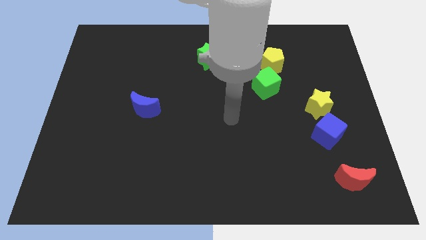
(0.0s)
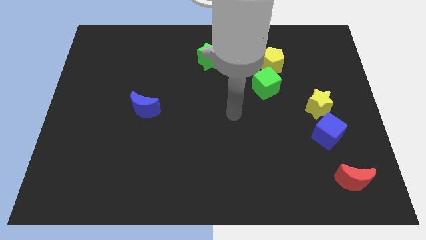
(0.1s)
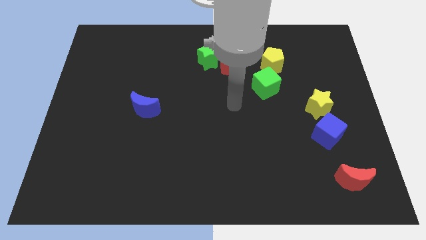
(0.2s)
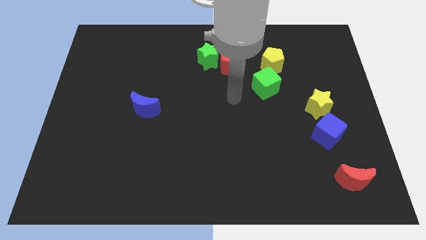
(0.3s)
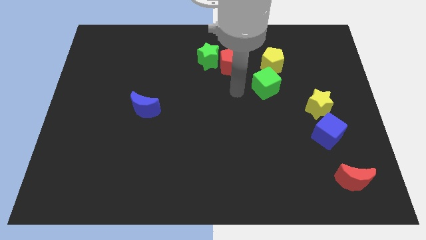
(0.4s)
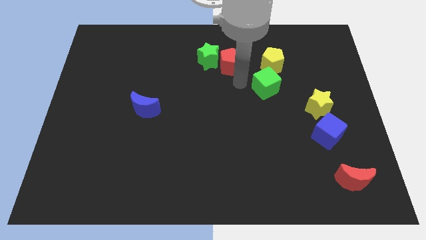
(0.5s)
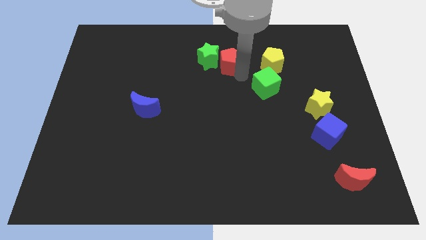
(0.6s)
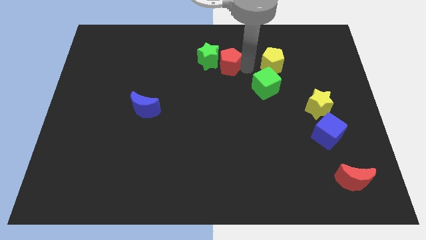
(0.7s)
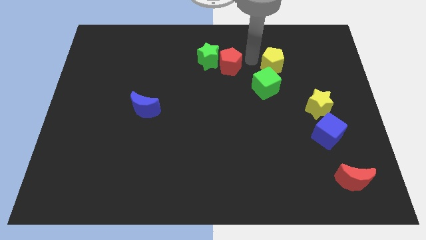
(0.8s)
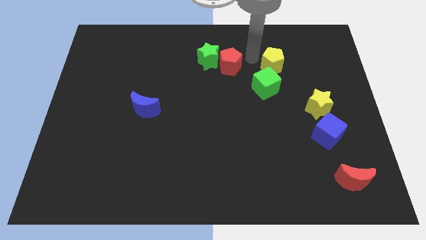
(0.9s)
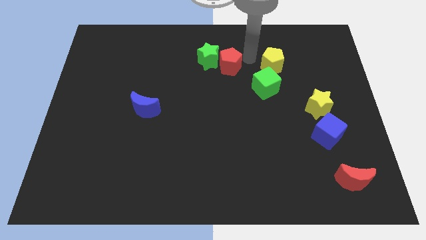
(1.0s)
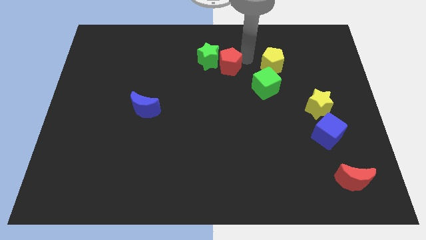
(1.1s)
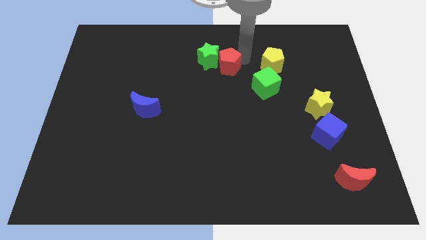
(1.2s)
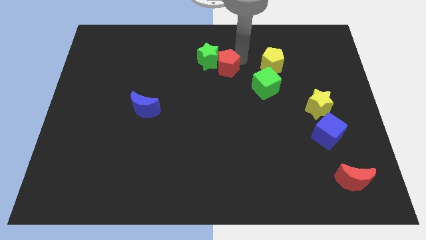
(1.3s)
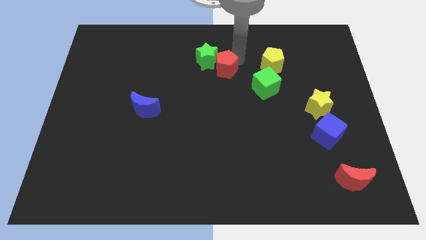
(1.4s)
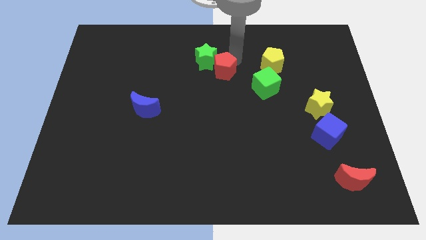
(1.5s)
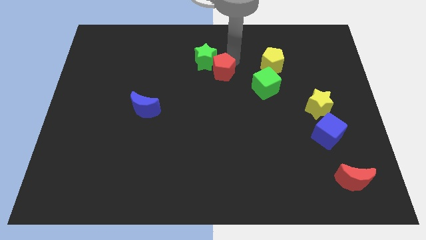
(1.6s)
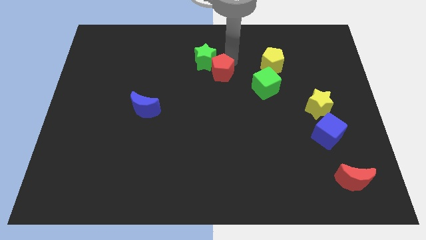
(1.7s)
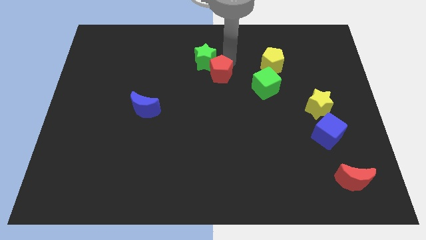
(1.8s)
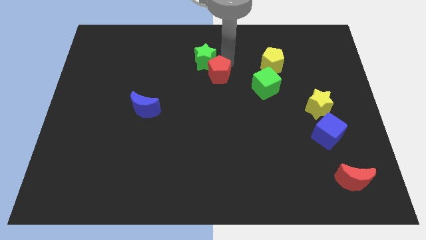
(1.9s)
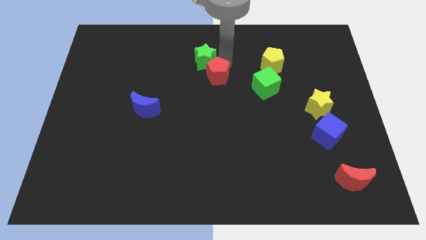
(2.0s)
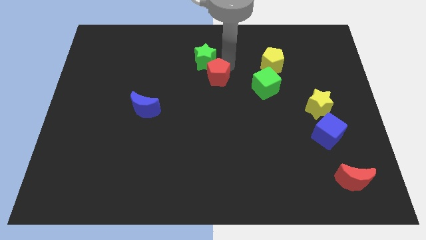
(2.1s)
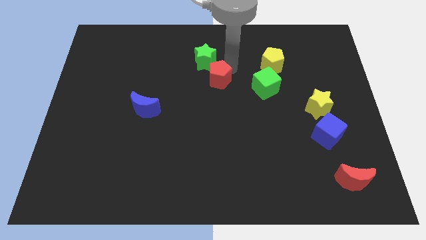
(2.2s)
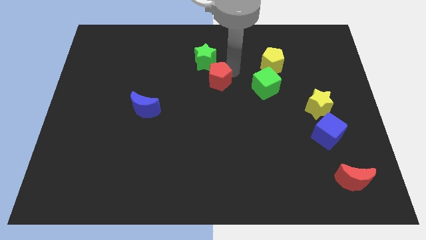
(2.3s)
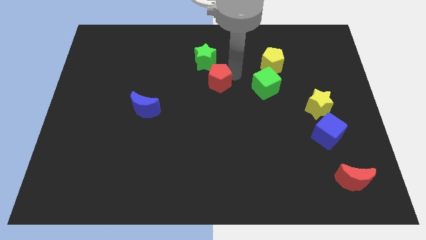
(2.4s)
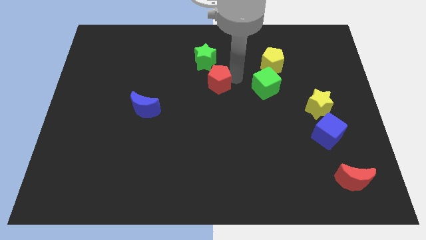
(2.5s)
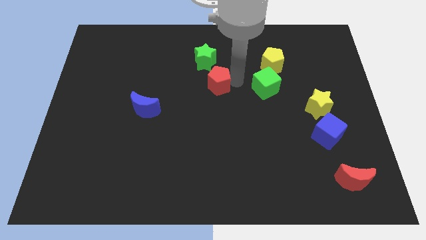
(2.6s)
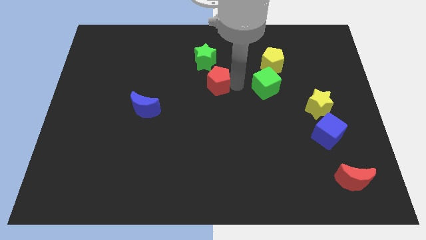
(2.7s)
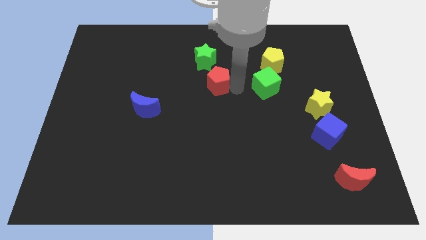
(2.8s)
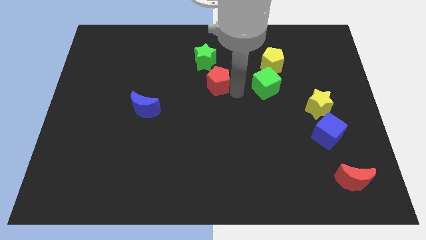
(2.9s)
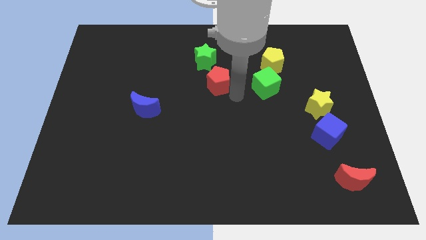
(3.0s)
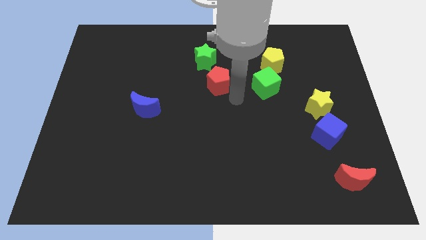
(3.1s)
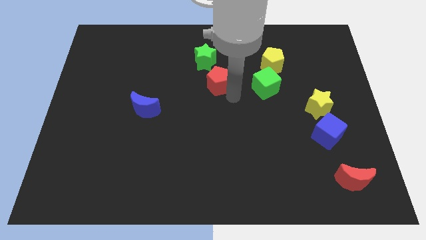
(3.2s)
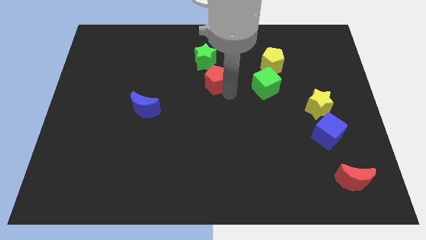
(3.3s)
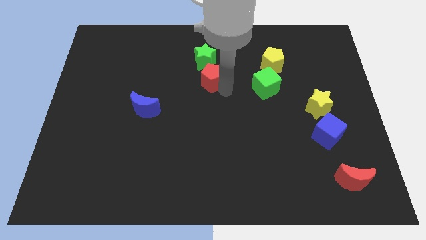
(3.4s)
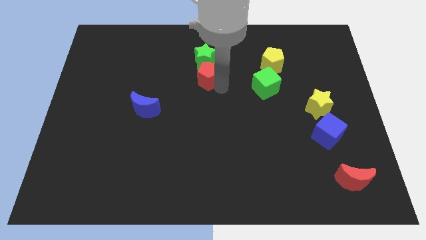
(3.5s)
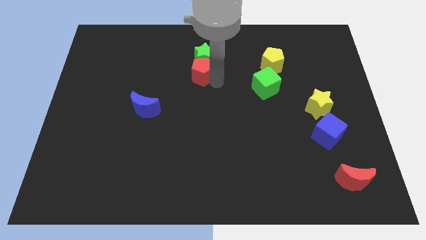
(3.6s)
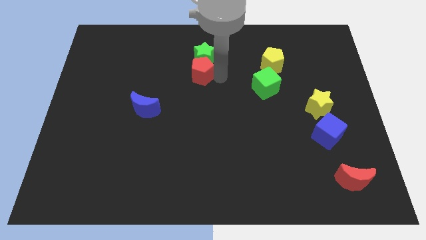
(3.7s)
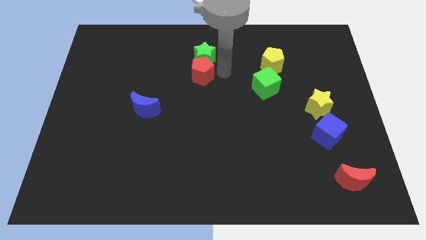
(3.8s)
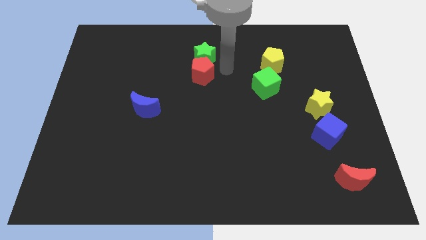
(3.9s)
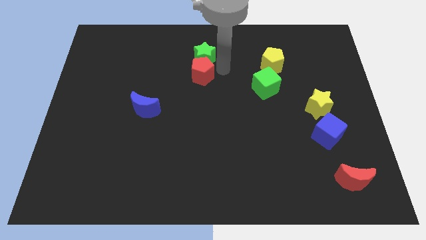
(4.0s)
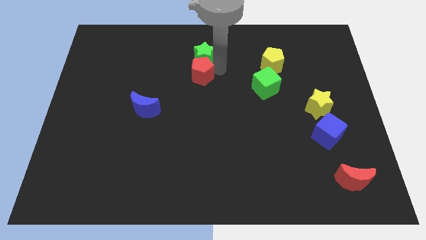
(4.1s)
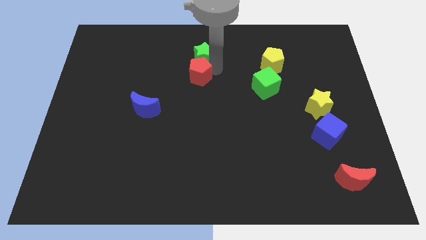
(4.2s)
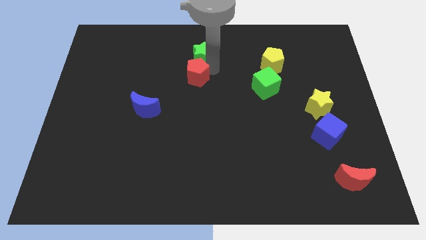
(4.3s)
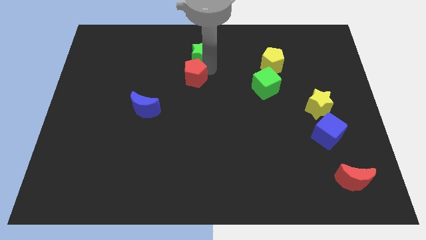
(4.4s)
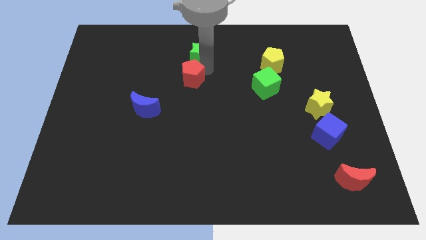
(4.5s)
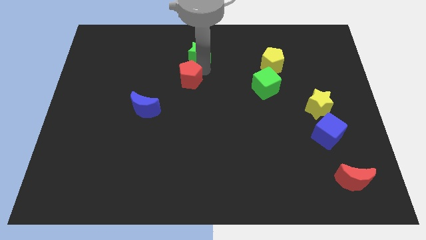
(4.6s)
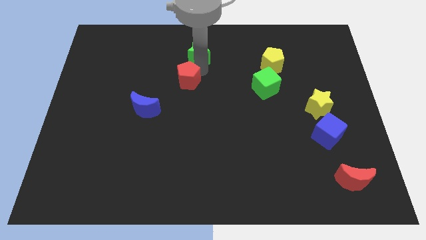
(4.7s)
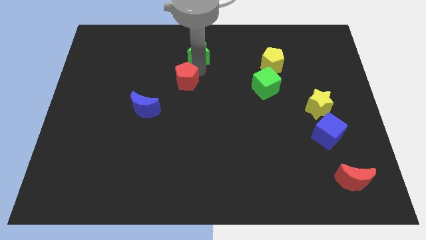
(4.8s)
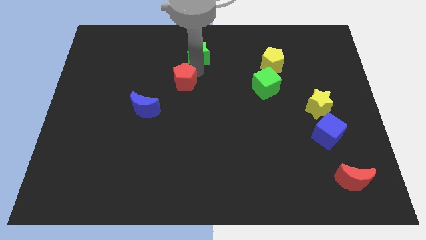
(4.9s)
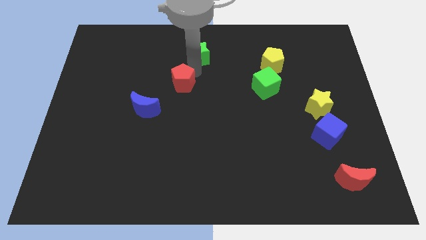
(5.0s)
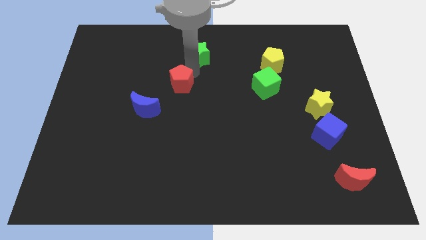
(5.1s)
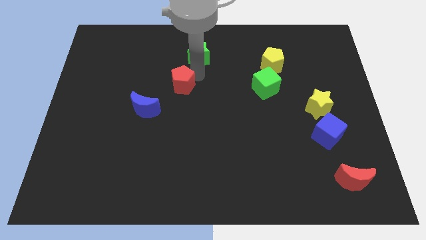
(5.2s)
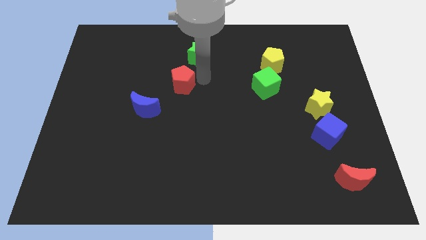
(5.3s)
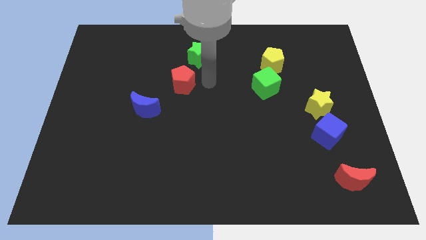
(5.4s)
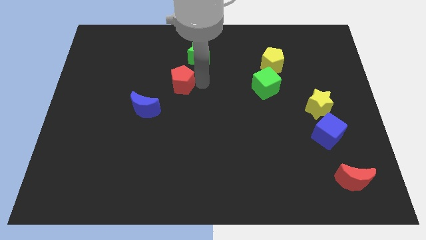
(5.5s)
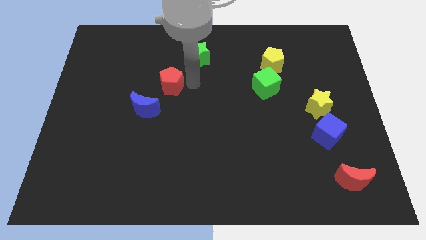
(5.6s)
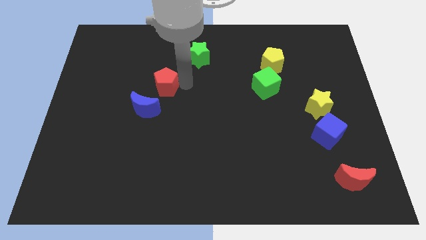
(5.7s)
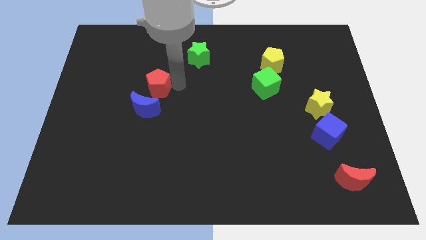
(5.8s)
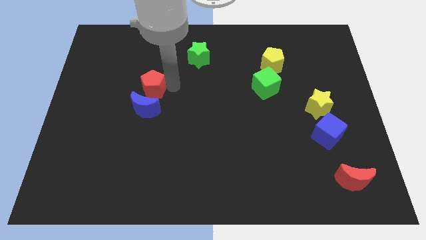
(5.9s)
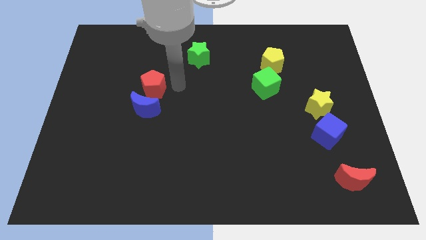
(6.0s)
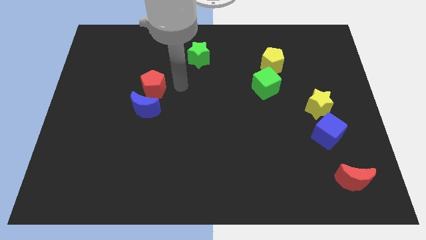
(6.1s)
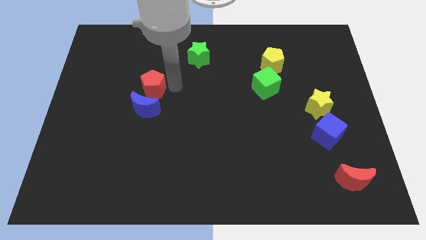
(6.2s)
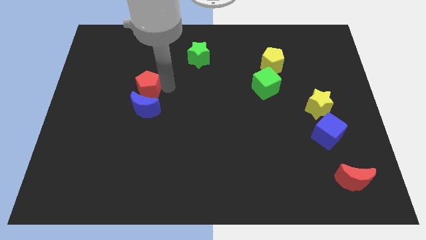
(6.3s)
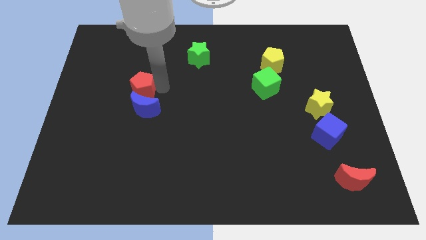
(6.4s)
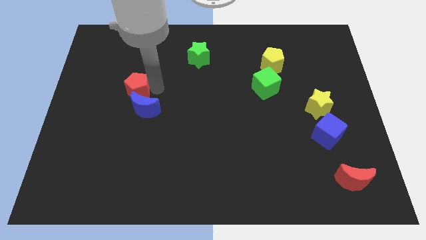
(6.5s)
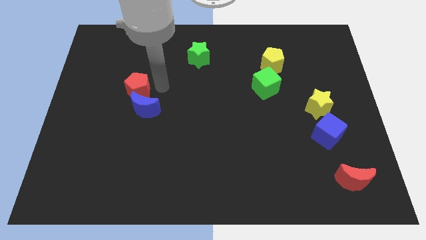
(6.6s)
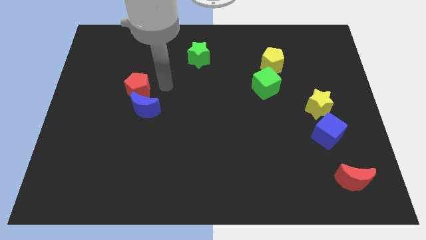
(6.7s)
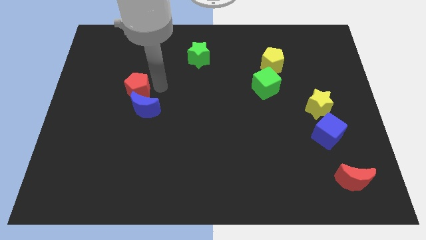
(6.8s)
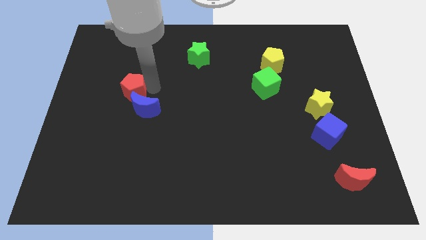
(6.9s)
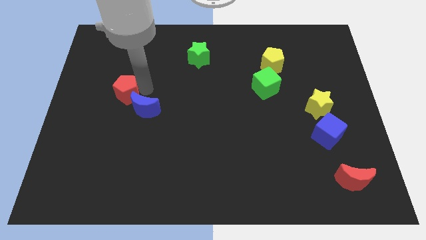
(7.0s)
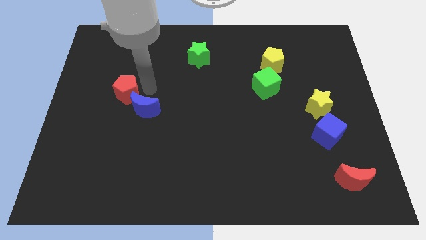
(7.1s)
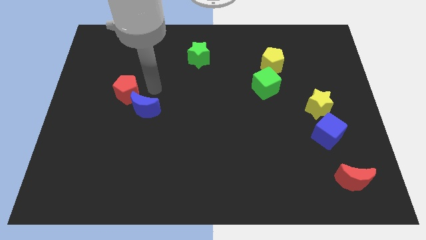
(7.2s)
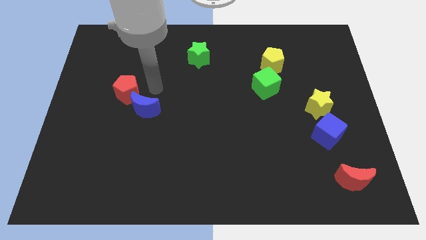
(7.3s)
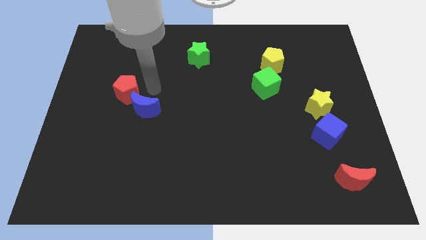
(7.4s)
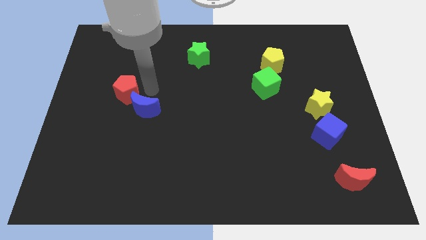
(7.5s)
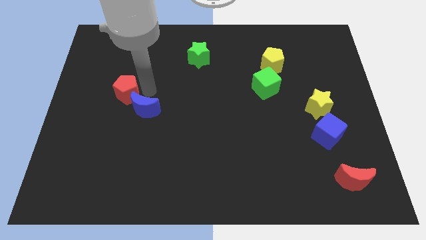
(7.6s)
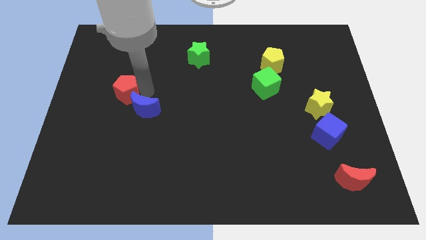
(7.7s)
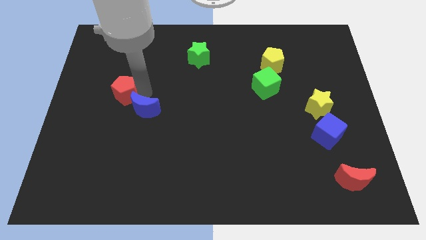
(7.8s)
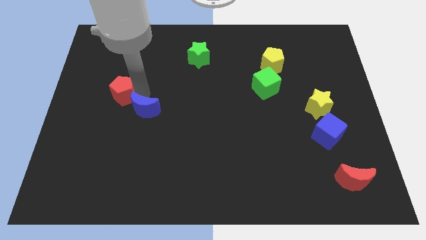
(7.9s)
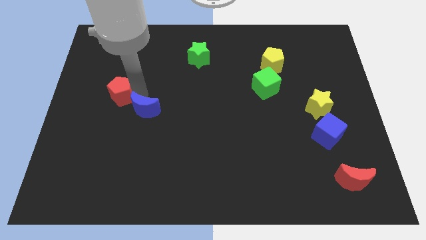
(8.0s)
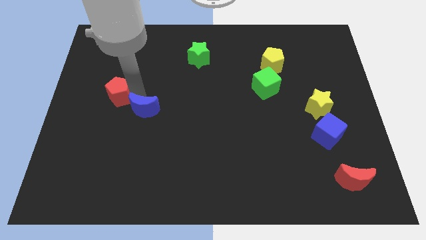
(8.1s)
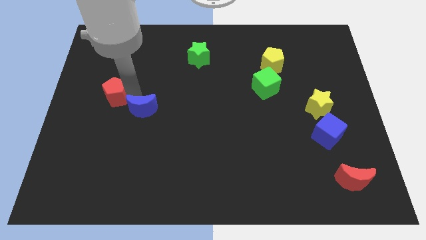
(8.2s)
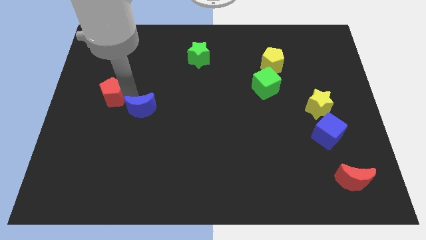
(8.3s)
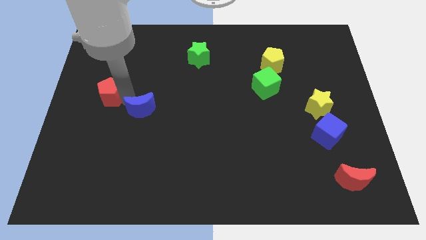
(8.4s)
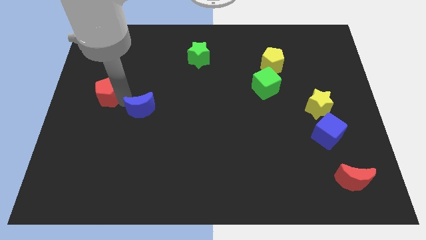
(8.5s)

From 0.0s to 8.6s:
move the red pentagon to the left side of the board
